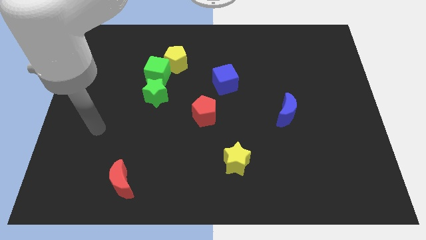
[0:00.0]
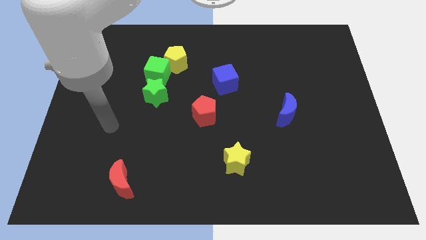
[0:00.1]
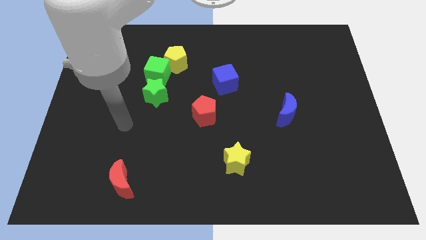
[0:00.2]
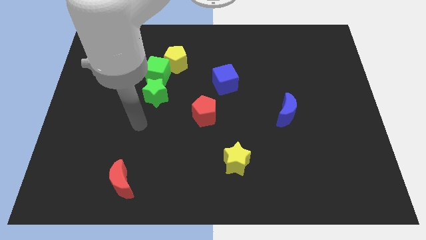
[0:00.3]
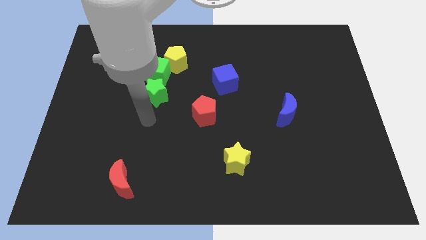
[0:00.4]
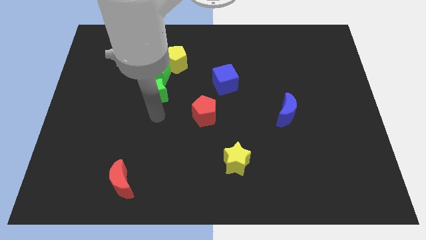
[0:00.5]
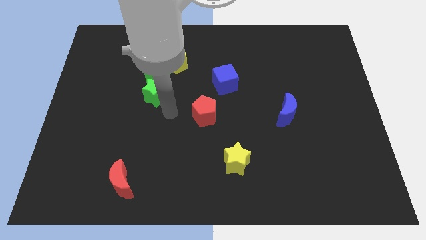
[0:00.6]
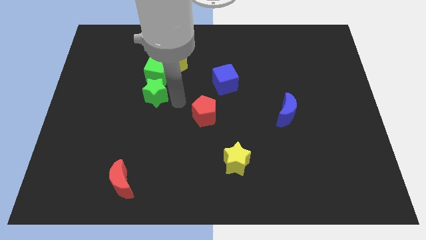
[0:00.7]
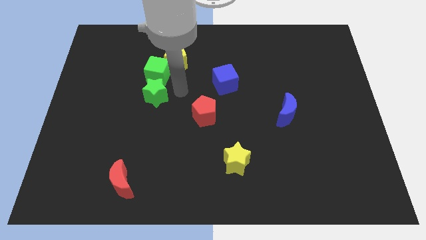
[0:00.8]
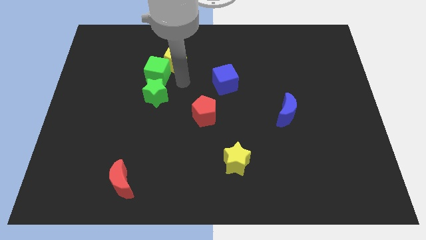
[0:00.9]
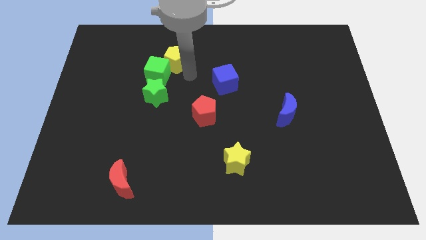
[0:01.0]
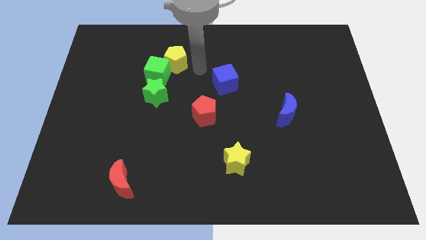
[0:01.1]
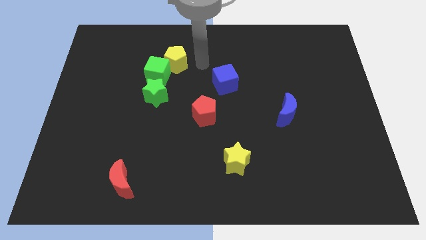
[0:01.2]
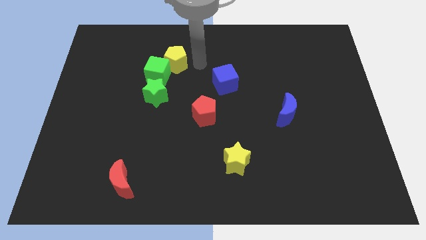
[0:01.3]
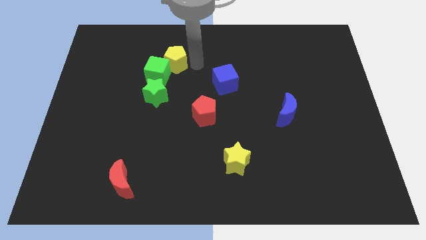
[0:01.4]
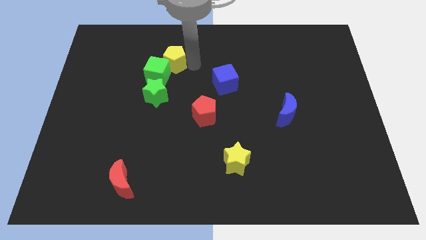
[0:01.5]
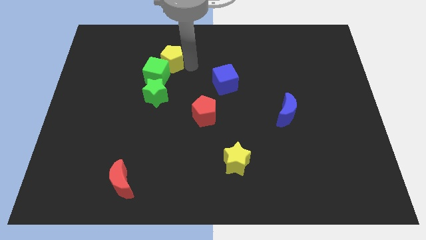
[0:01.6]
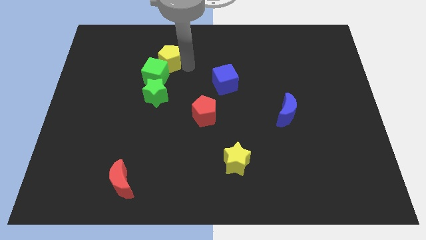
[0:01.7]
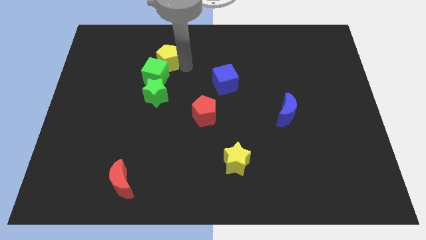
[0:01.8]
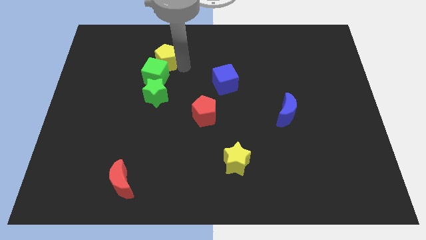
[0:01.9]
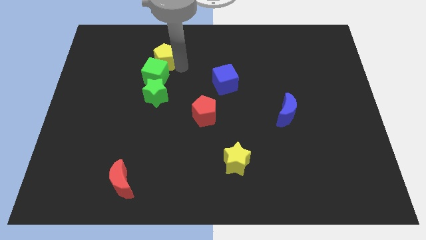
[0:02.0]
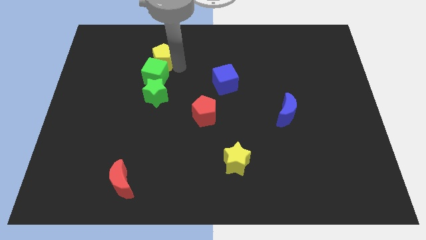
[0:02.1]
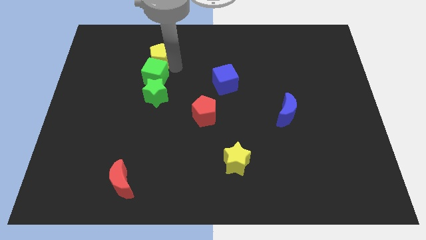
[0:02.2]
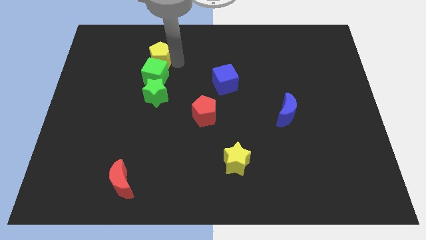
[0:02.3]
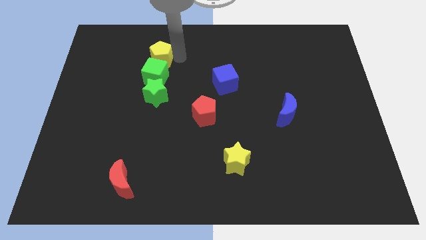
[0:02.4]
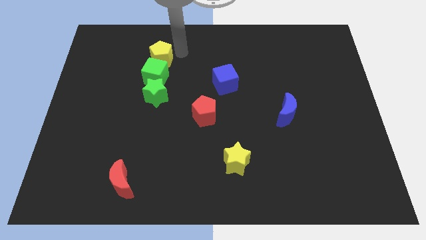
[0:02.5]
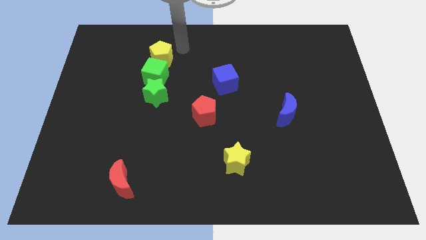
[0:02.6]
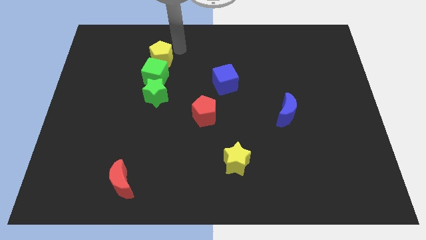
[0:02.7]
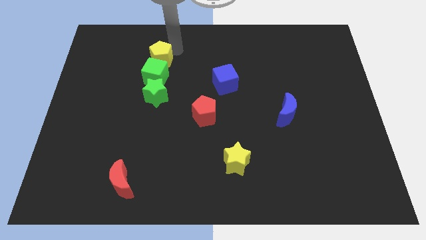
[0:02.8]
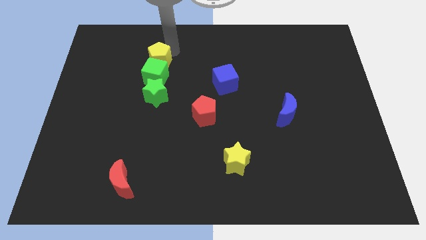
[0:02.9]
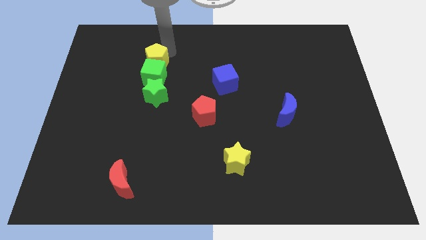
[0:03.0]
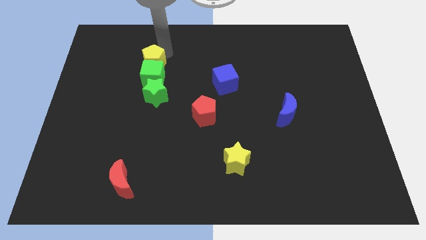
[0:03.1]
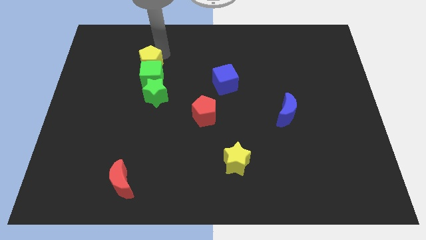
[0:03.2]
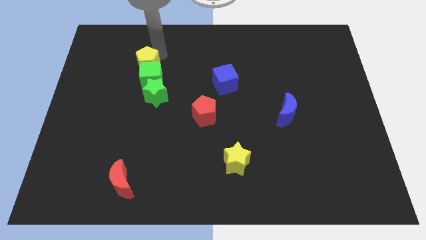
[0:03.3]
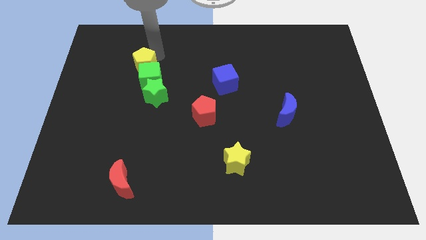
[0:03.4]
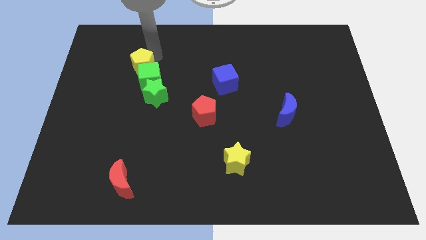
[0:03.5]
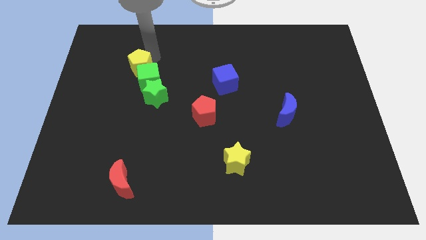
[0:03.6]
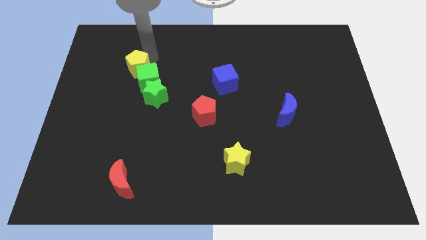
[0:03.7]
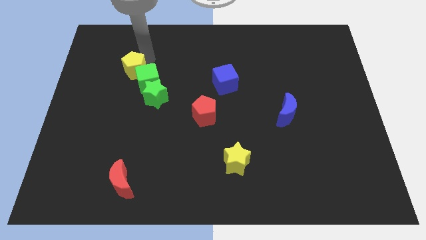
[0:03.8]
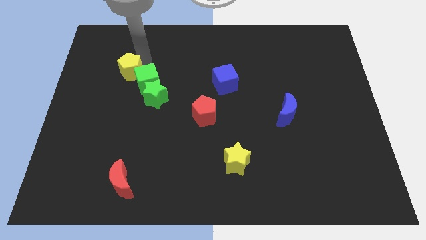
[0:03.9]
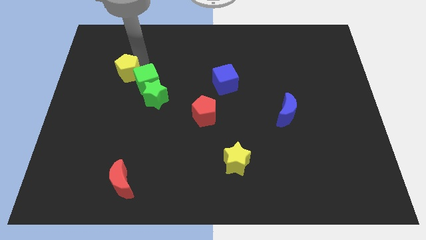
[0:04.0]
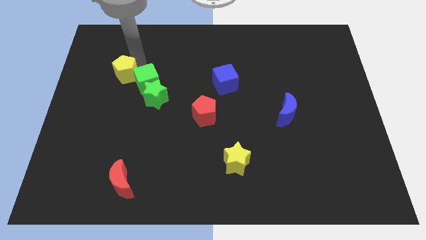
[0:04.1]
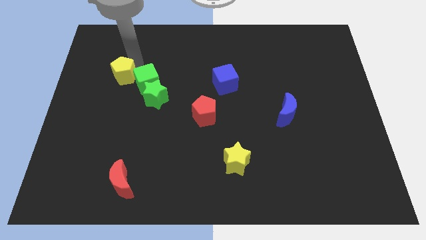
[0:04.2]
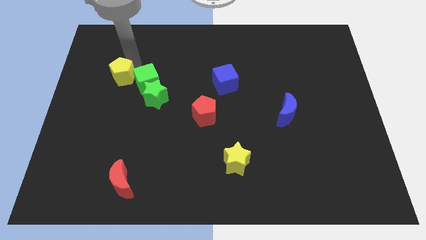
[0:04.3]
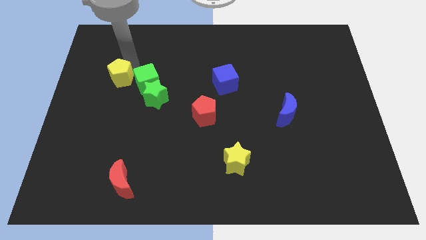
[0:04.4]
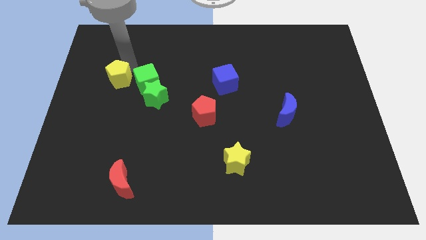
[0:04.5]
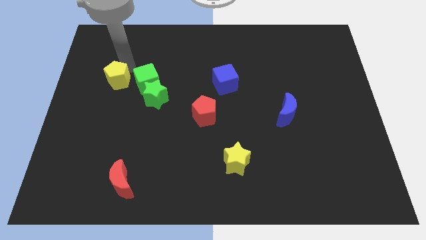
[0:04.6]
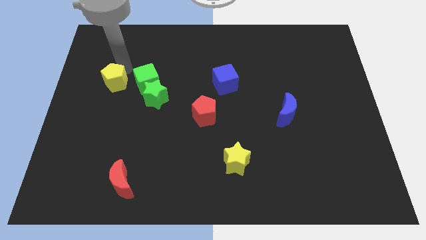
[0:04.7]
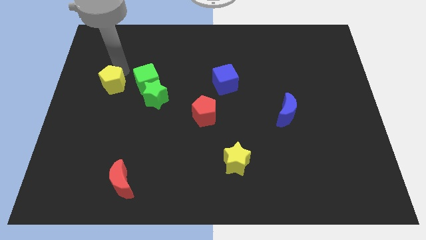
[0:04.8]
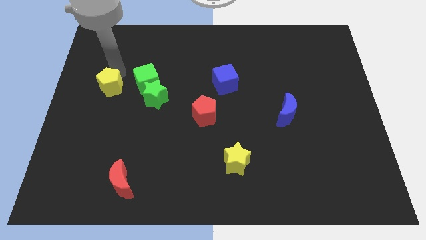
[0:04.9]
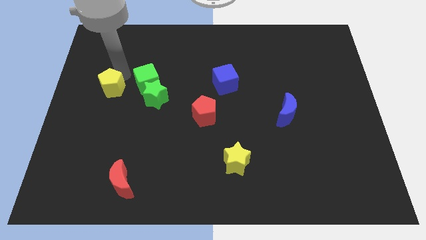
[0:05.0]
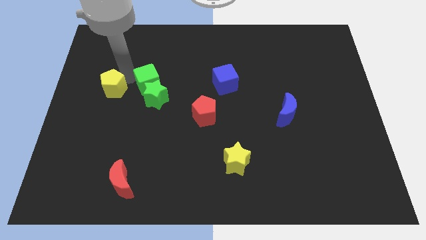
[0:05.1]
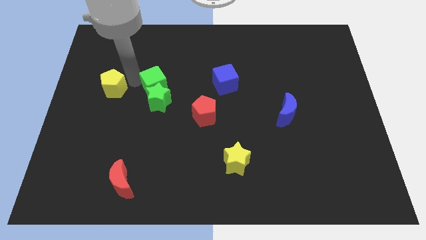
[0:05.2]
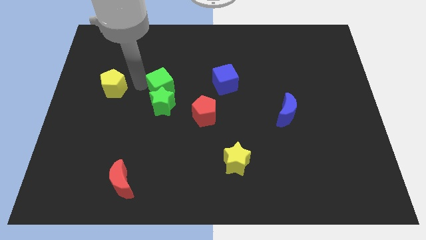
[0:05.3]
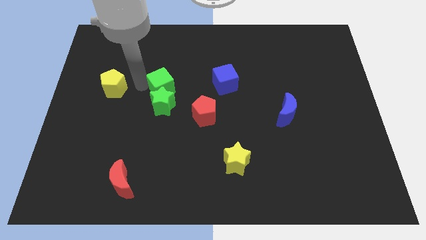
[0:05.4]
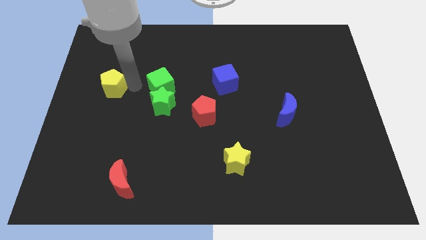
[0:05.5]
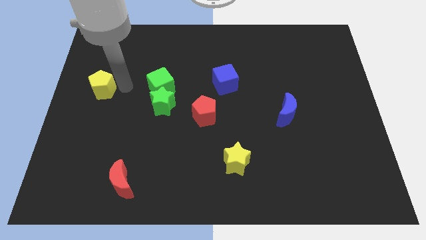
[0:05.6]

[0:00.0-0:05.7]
slide the yellow pentagon to the center left

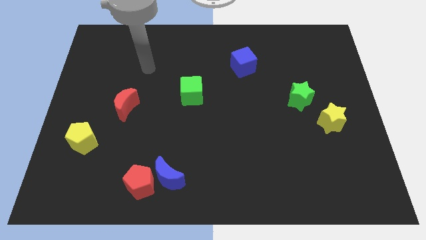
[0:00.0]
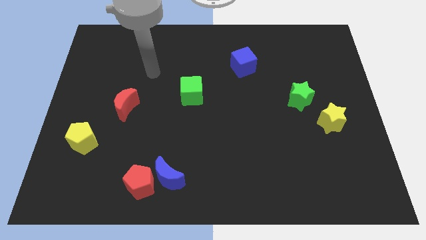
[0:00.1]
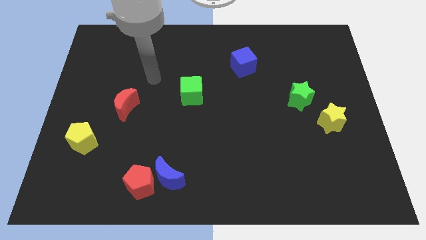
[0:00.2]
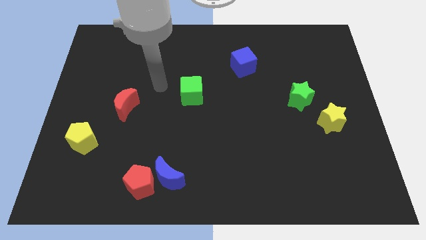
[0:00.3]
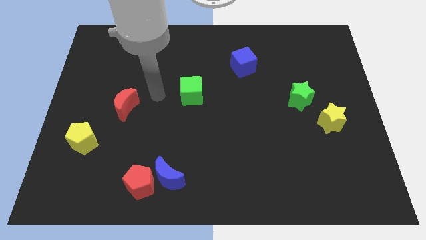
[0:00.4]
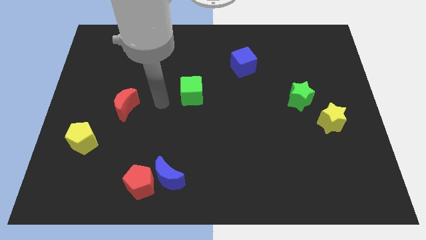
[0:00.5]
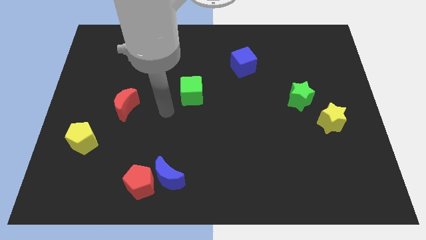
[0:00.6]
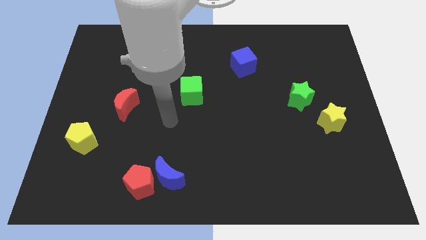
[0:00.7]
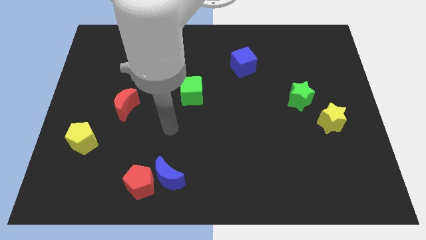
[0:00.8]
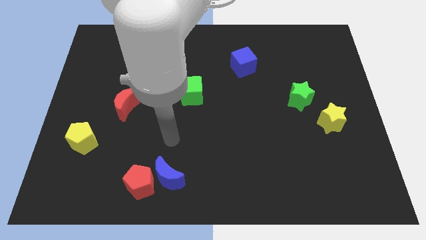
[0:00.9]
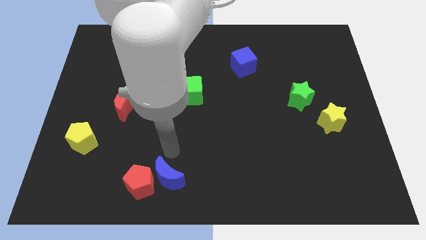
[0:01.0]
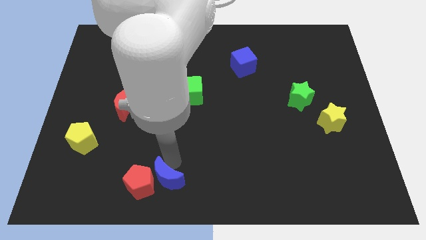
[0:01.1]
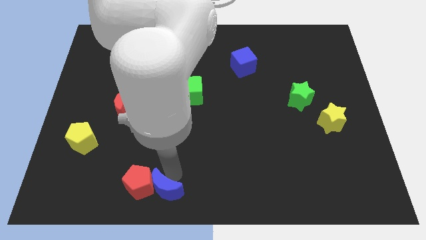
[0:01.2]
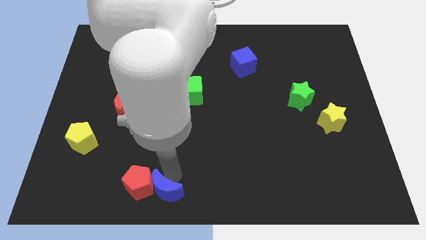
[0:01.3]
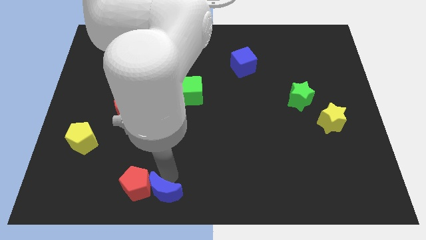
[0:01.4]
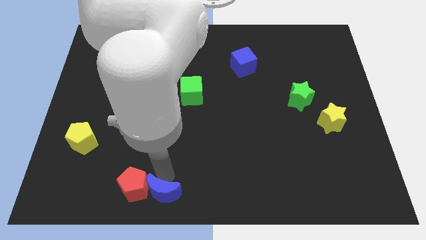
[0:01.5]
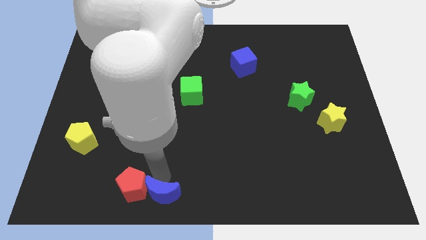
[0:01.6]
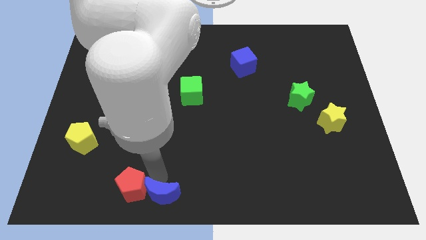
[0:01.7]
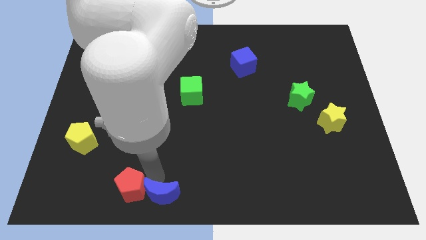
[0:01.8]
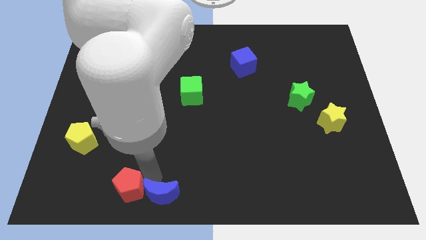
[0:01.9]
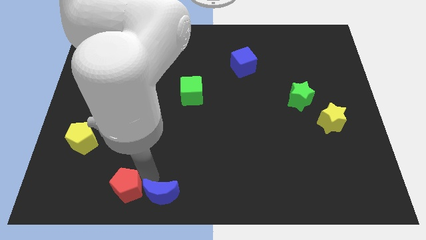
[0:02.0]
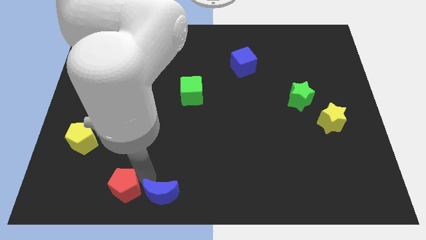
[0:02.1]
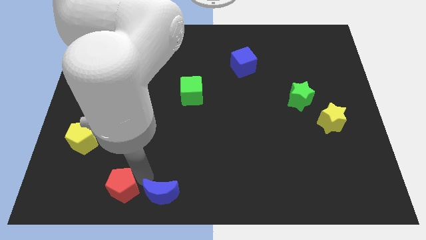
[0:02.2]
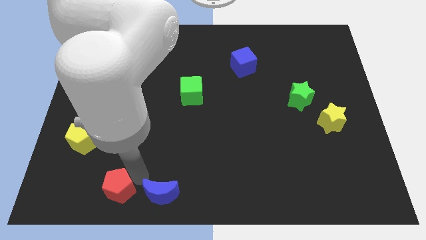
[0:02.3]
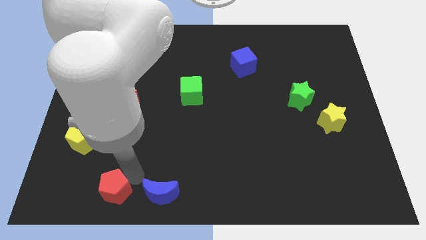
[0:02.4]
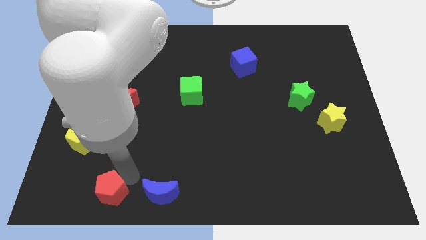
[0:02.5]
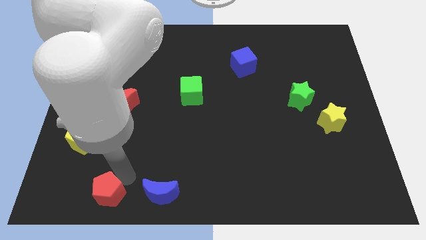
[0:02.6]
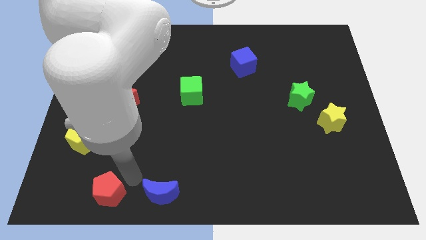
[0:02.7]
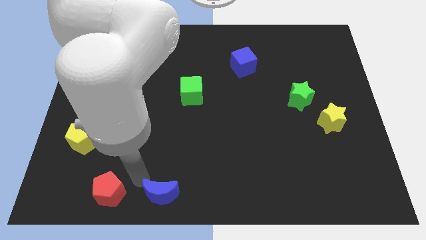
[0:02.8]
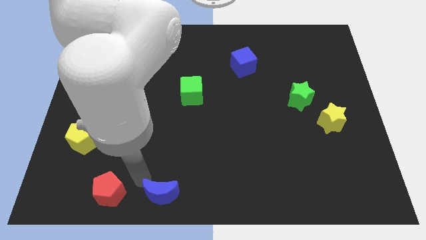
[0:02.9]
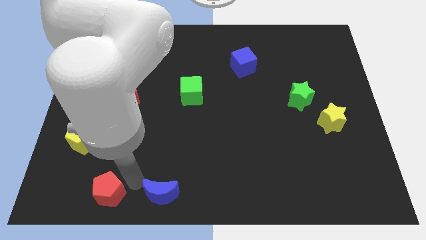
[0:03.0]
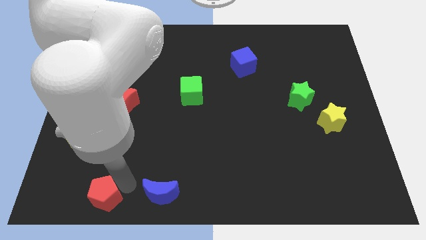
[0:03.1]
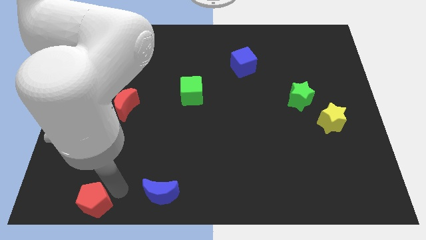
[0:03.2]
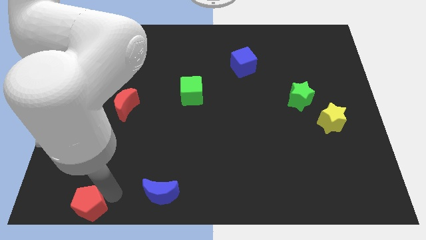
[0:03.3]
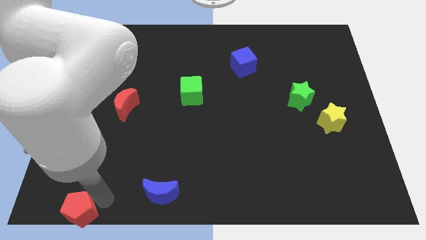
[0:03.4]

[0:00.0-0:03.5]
slide the red pentagon to the bottom left
